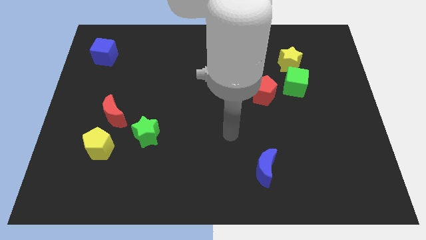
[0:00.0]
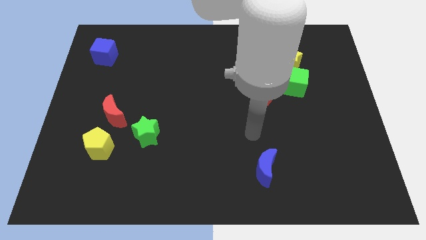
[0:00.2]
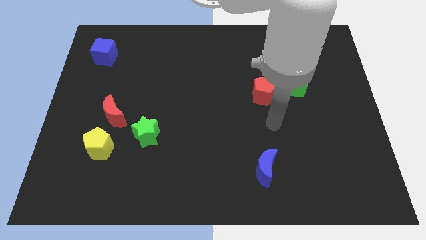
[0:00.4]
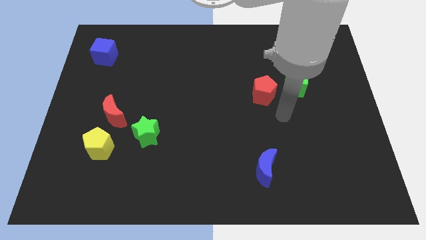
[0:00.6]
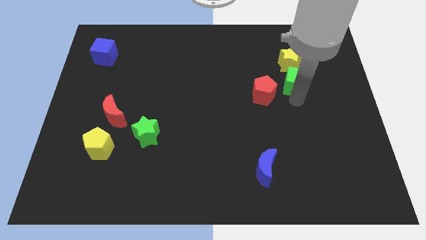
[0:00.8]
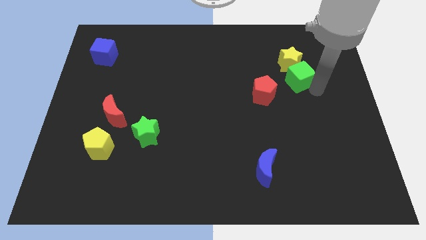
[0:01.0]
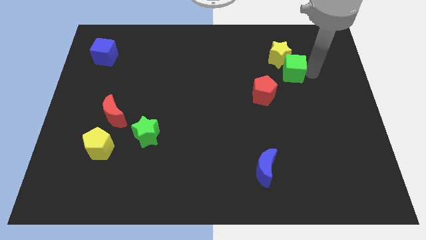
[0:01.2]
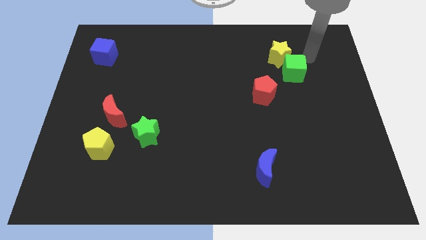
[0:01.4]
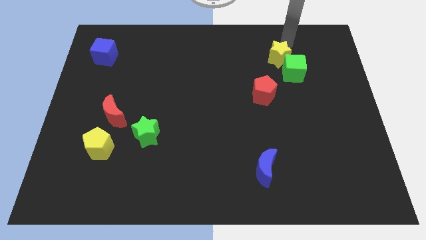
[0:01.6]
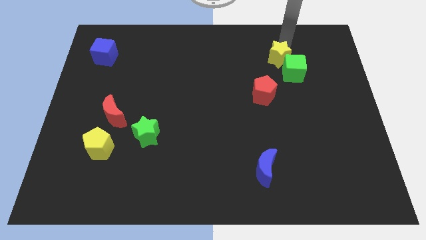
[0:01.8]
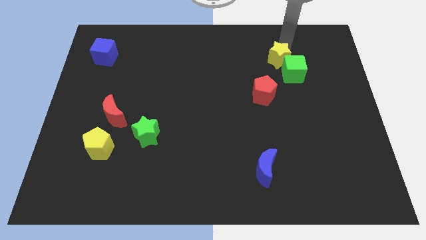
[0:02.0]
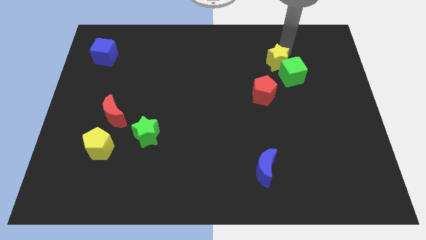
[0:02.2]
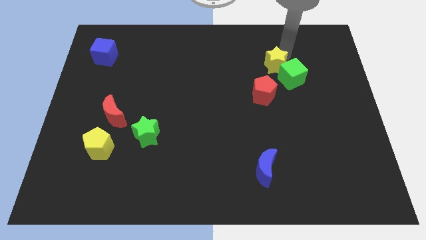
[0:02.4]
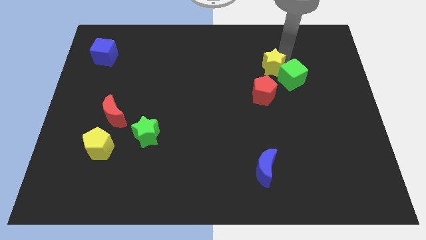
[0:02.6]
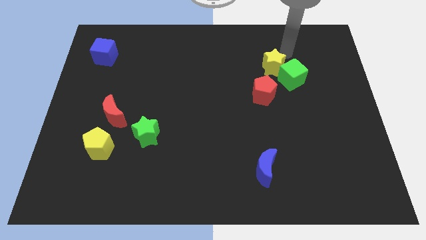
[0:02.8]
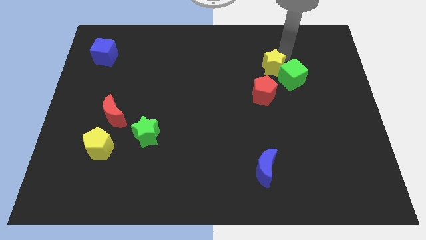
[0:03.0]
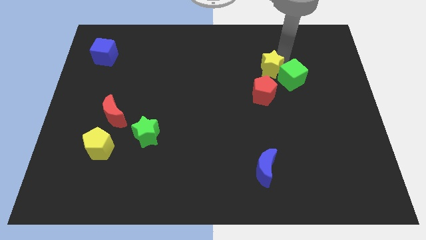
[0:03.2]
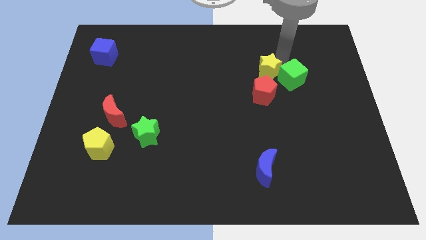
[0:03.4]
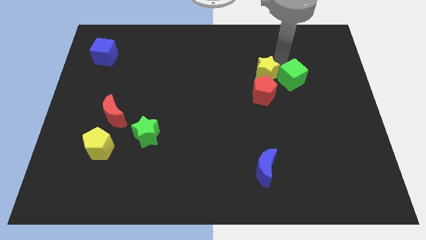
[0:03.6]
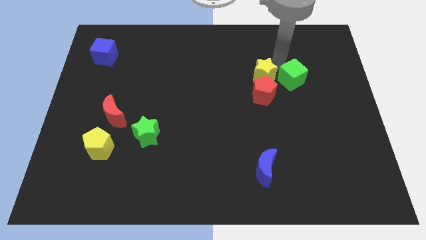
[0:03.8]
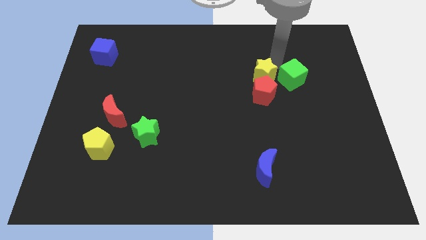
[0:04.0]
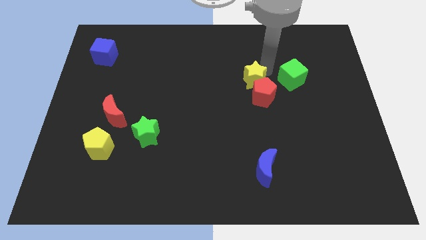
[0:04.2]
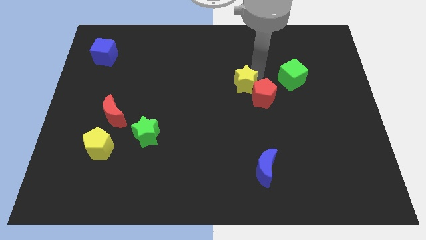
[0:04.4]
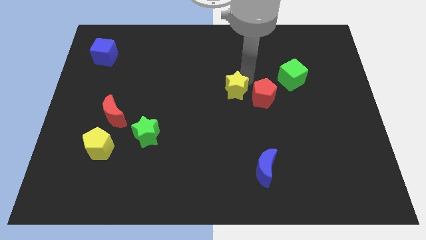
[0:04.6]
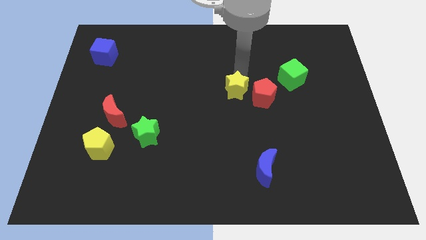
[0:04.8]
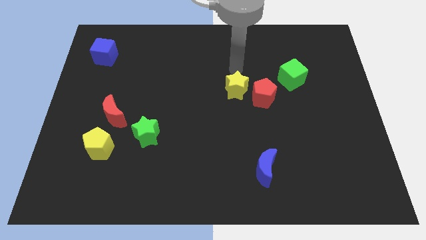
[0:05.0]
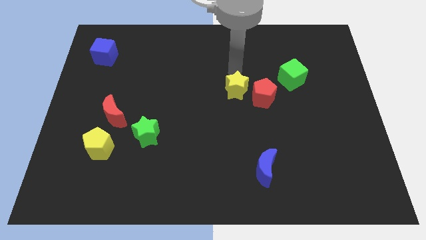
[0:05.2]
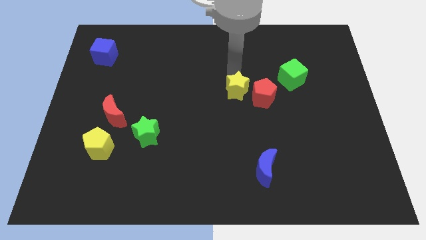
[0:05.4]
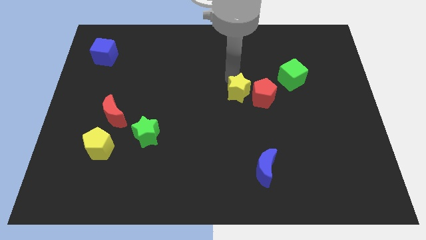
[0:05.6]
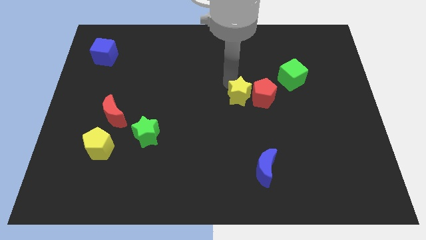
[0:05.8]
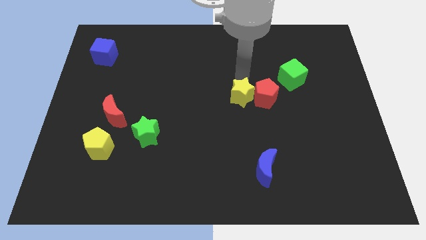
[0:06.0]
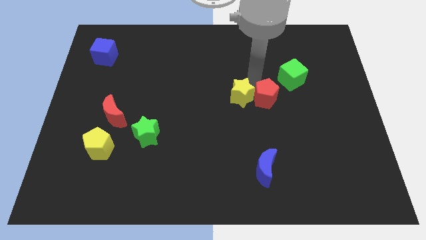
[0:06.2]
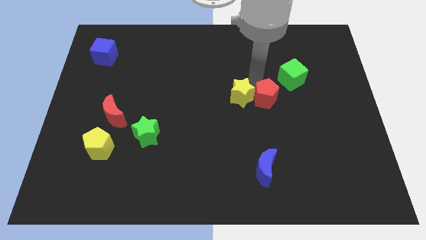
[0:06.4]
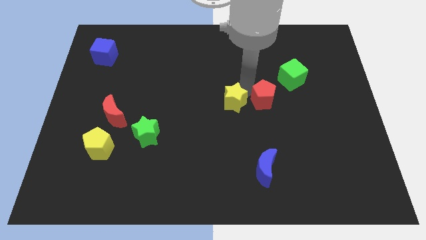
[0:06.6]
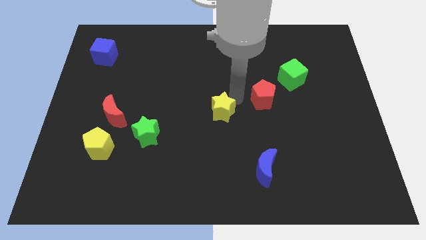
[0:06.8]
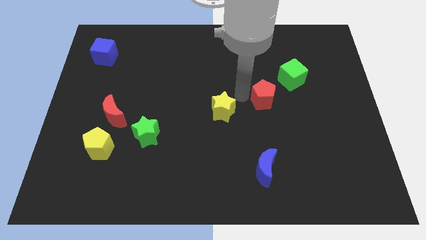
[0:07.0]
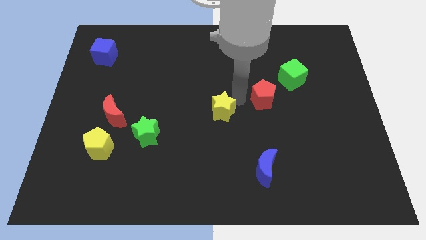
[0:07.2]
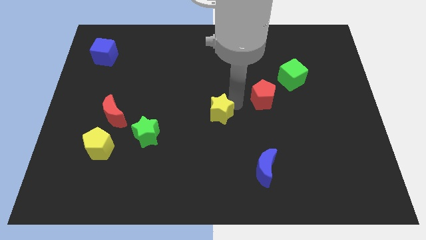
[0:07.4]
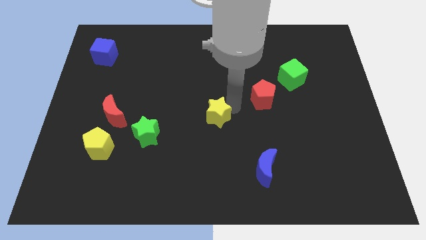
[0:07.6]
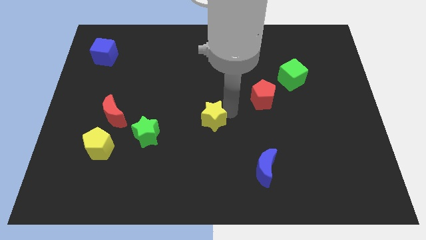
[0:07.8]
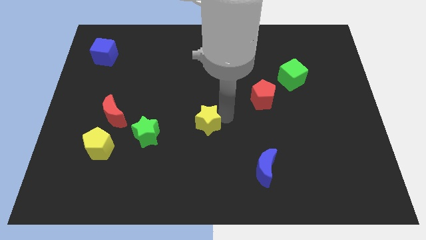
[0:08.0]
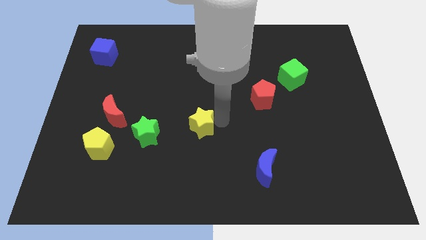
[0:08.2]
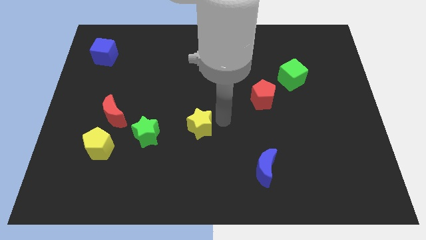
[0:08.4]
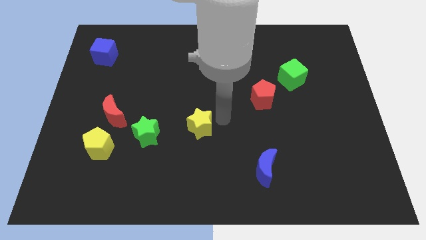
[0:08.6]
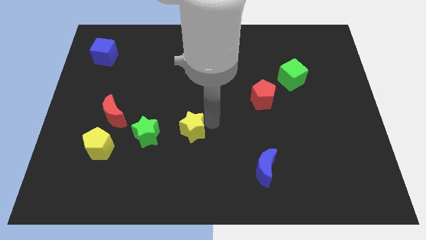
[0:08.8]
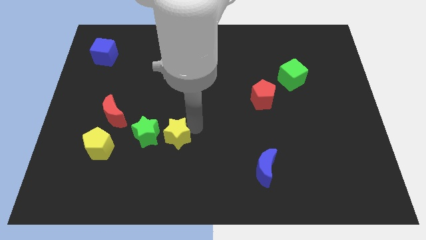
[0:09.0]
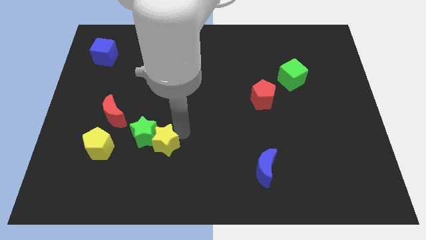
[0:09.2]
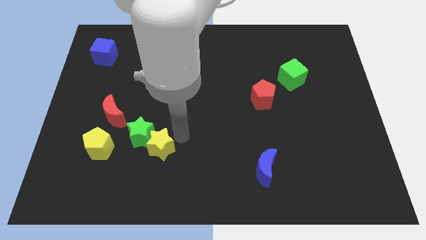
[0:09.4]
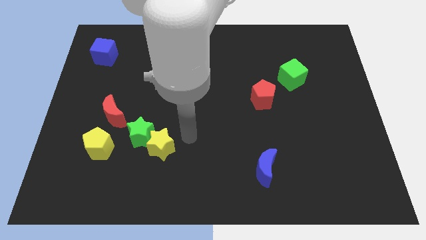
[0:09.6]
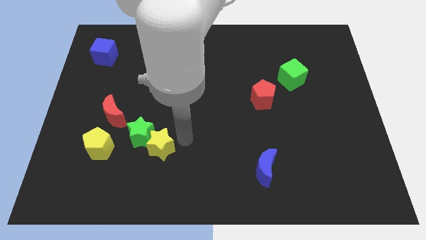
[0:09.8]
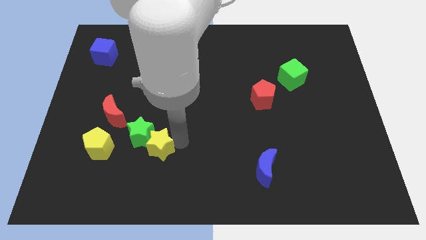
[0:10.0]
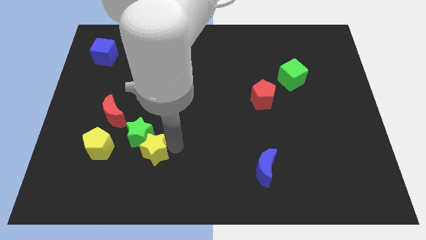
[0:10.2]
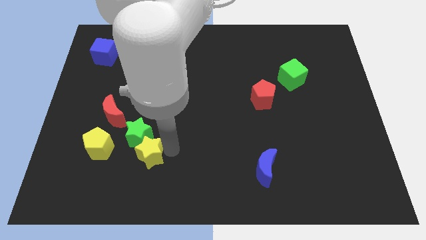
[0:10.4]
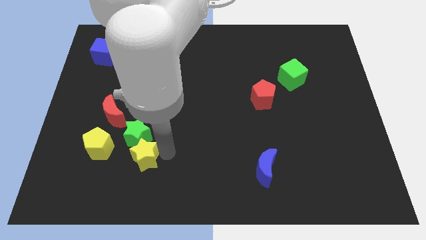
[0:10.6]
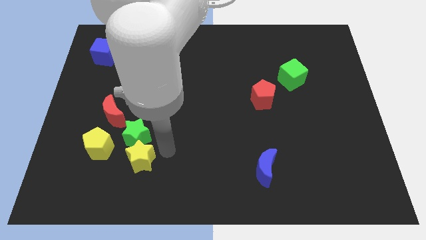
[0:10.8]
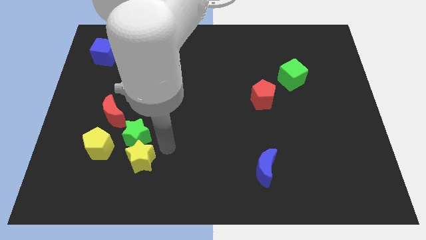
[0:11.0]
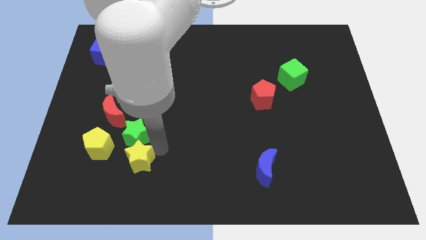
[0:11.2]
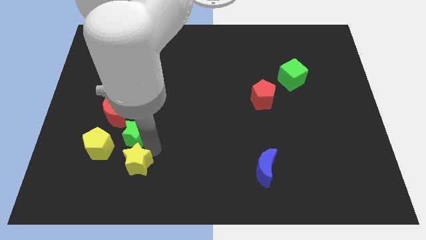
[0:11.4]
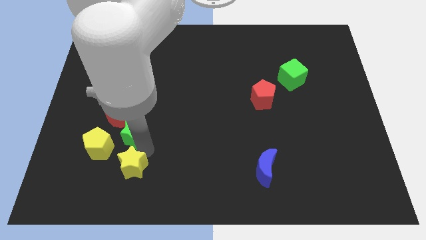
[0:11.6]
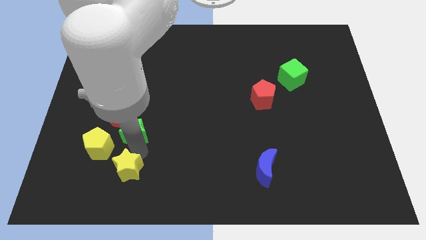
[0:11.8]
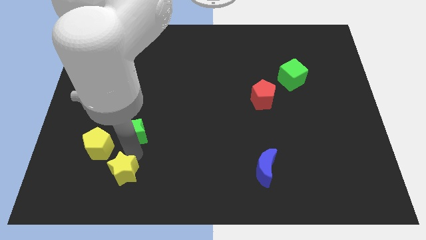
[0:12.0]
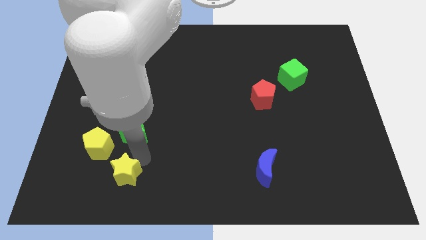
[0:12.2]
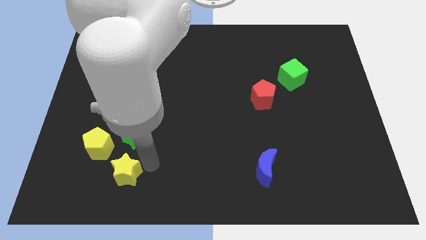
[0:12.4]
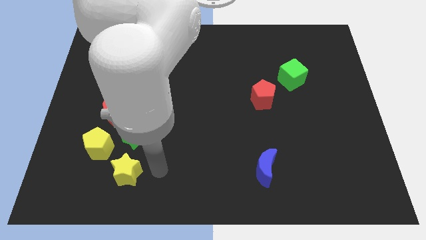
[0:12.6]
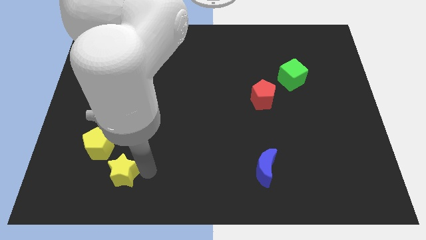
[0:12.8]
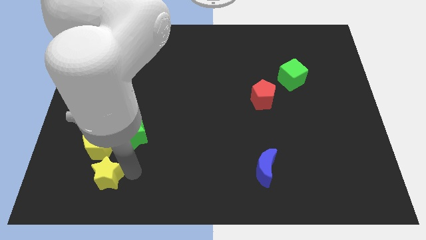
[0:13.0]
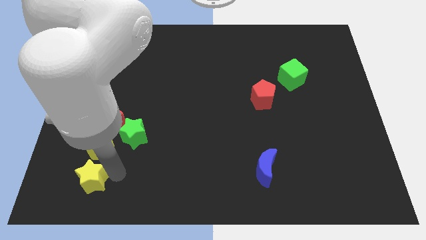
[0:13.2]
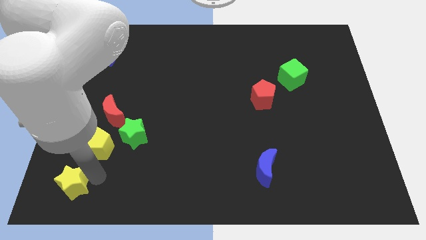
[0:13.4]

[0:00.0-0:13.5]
slide the yellow star to the bottom left of the board
